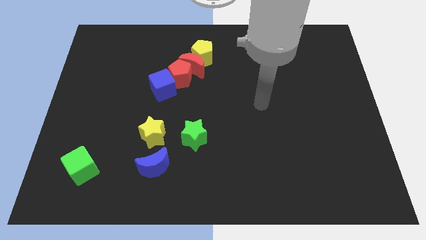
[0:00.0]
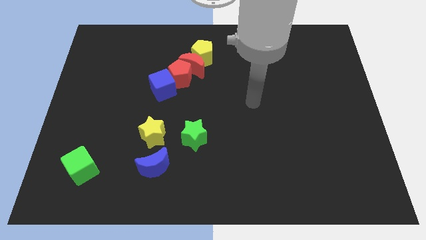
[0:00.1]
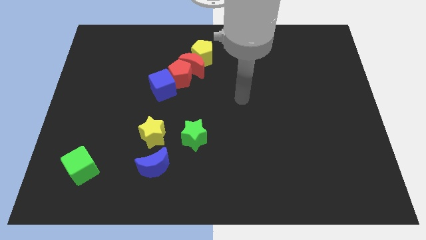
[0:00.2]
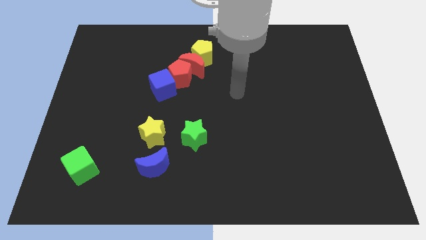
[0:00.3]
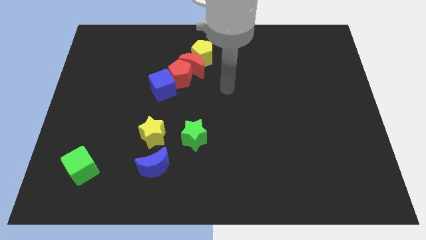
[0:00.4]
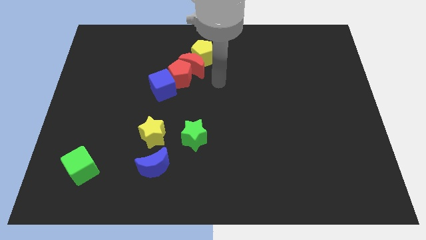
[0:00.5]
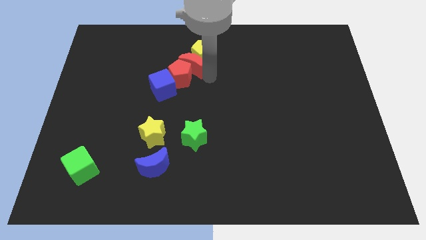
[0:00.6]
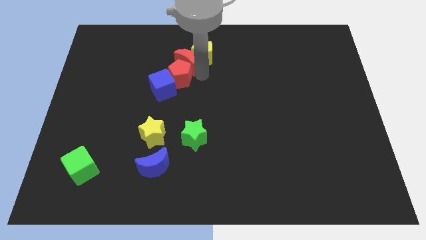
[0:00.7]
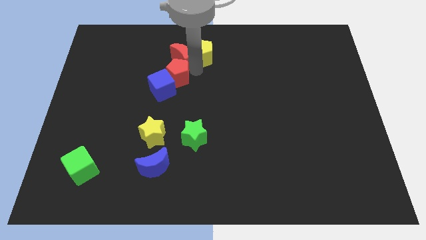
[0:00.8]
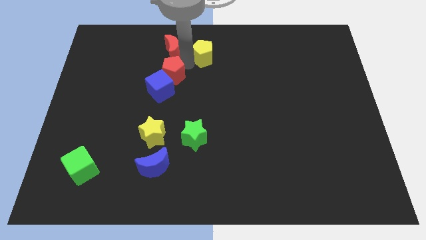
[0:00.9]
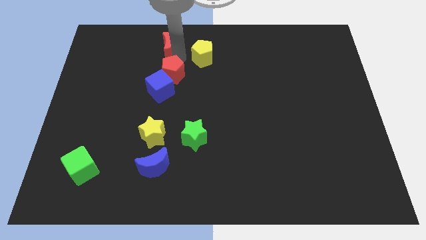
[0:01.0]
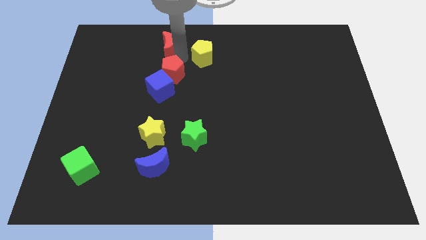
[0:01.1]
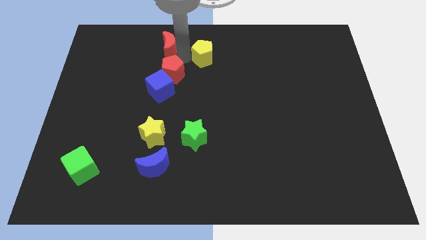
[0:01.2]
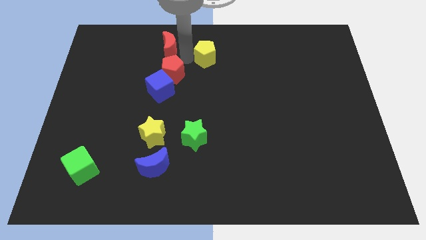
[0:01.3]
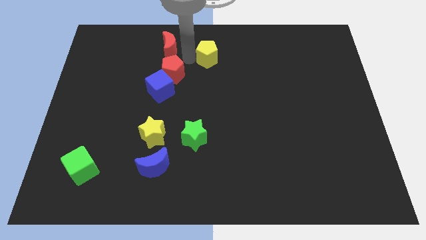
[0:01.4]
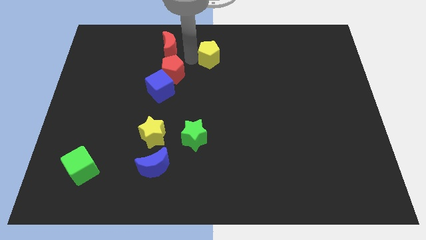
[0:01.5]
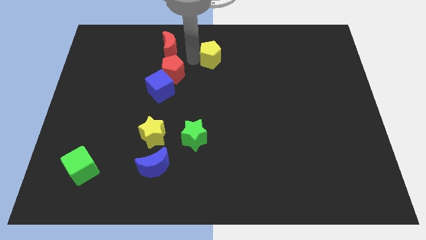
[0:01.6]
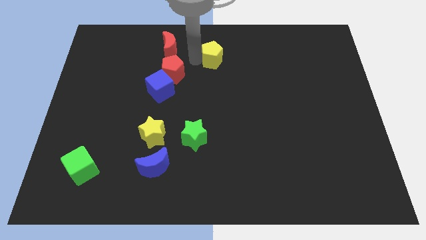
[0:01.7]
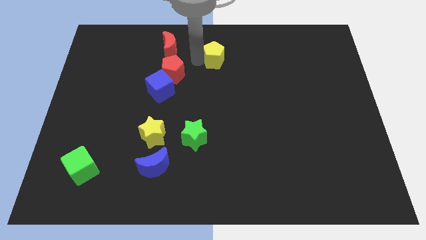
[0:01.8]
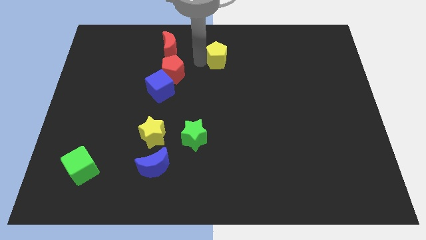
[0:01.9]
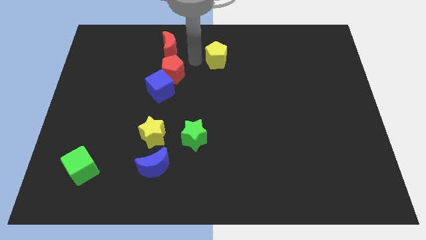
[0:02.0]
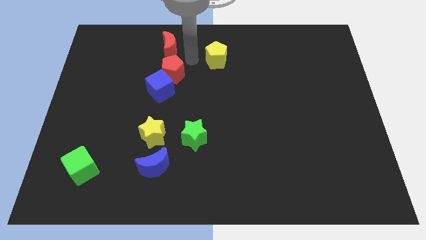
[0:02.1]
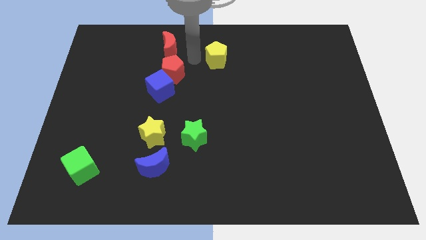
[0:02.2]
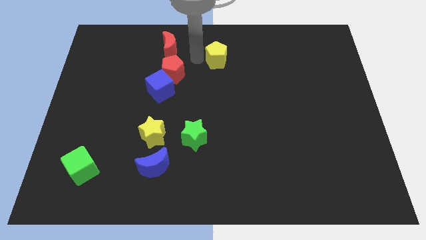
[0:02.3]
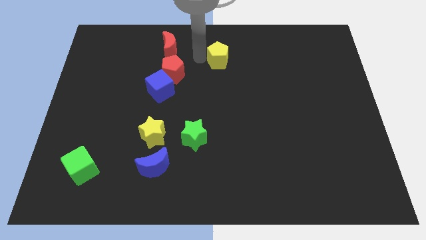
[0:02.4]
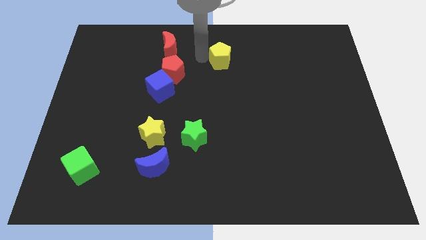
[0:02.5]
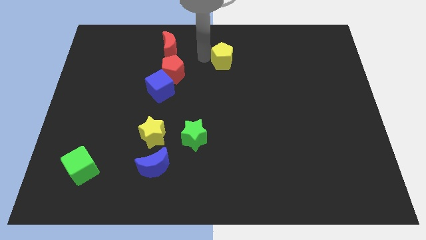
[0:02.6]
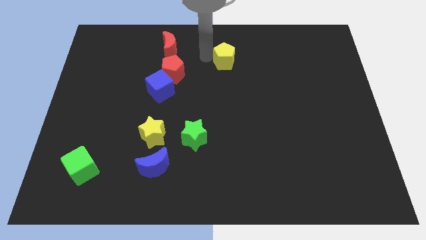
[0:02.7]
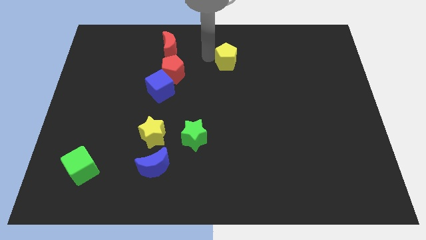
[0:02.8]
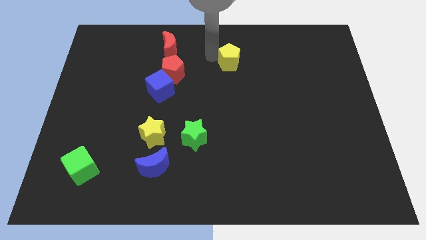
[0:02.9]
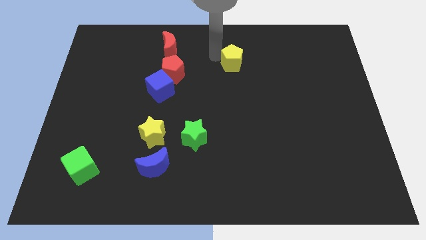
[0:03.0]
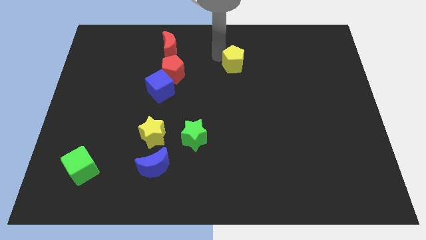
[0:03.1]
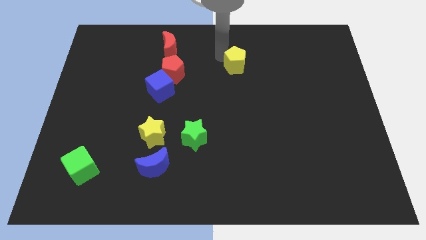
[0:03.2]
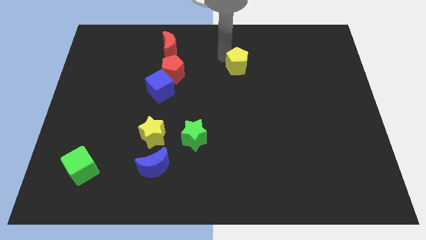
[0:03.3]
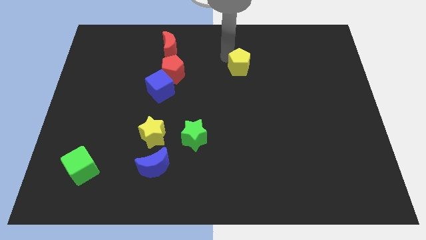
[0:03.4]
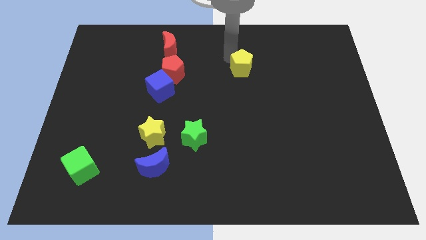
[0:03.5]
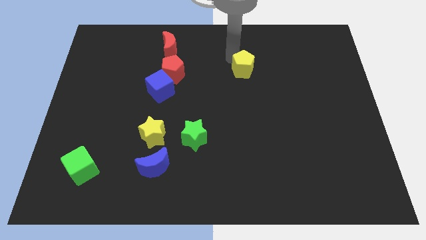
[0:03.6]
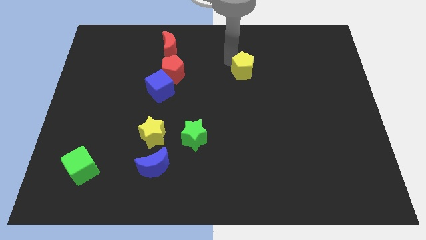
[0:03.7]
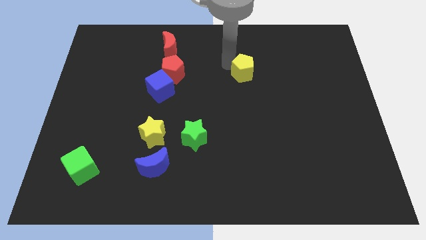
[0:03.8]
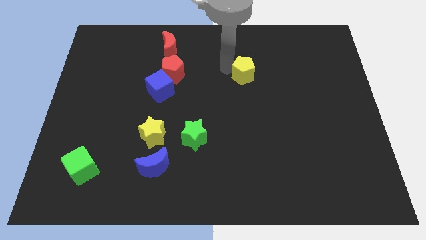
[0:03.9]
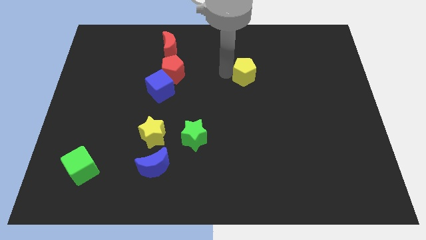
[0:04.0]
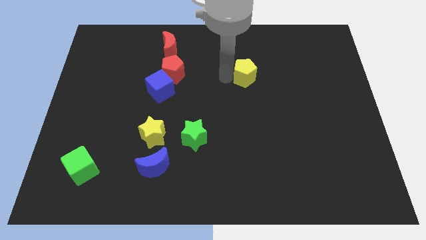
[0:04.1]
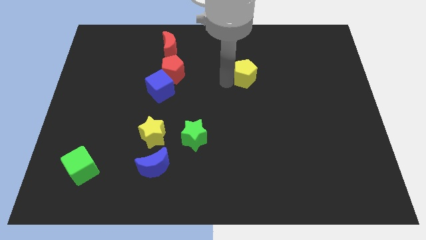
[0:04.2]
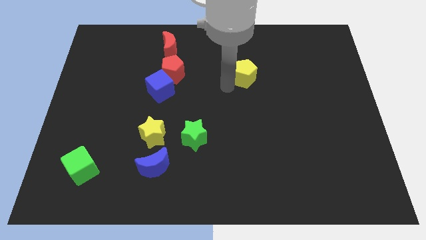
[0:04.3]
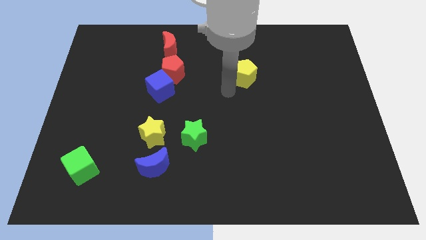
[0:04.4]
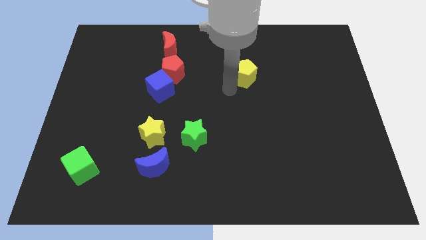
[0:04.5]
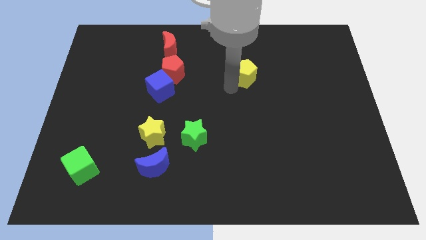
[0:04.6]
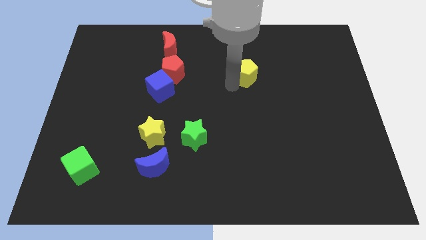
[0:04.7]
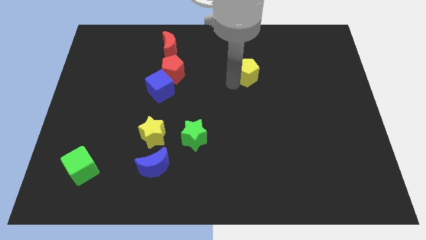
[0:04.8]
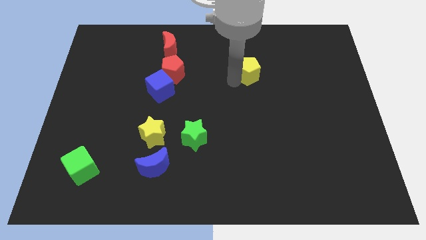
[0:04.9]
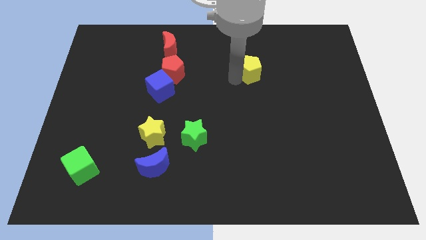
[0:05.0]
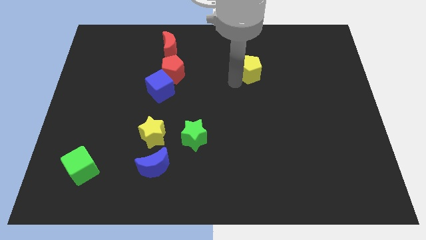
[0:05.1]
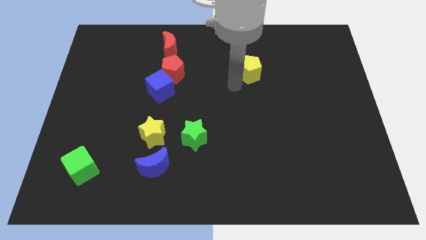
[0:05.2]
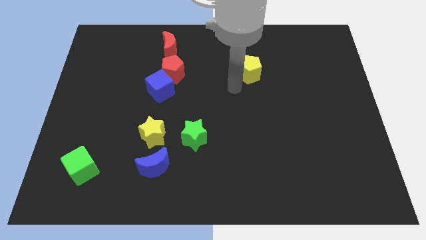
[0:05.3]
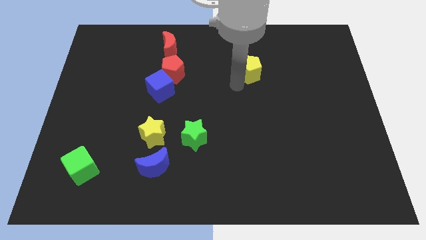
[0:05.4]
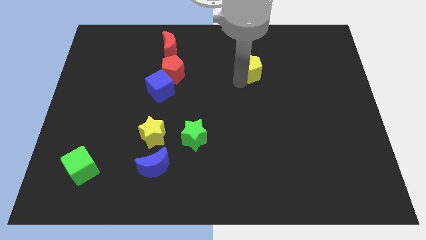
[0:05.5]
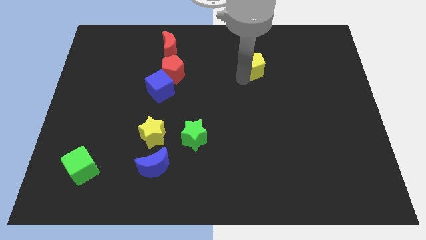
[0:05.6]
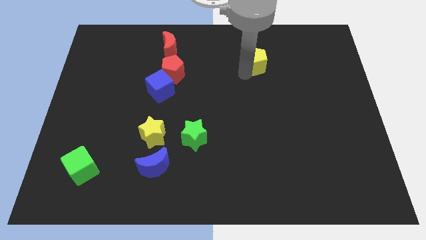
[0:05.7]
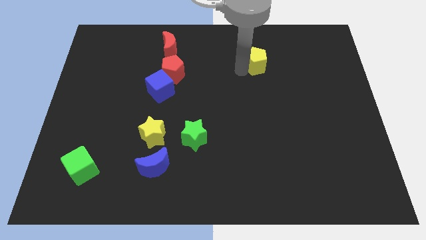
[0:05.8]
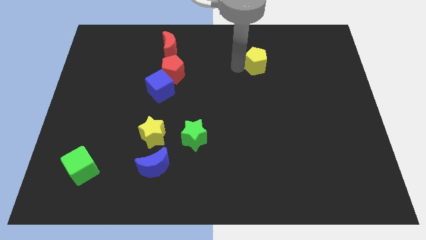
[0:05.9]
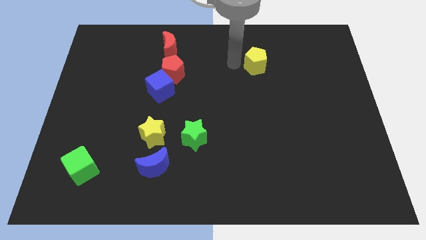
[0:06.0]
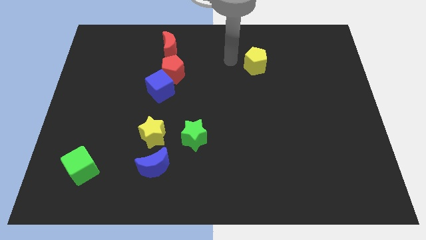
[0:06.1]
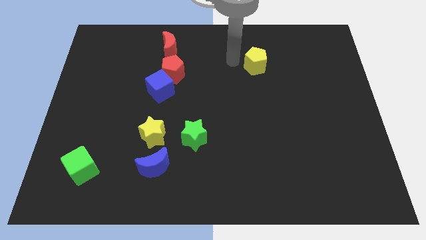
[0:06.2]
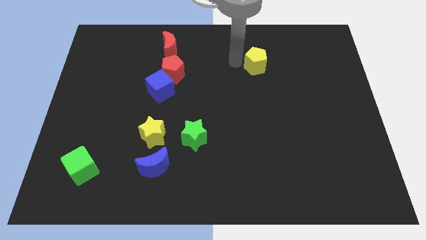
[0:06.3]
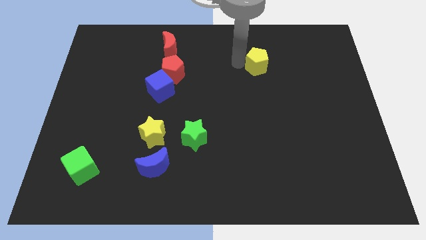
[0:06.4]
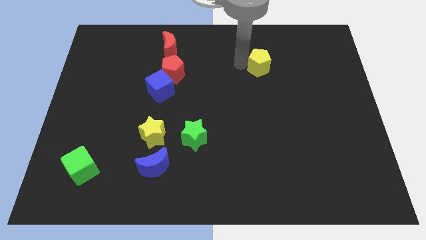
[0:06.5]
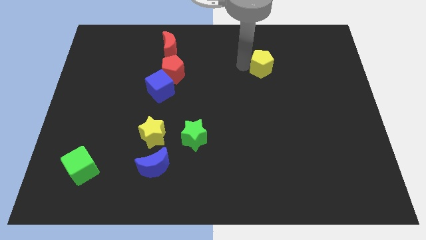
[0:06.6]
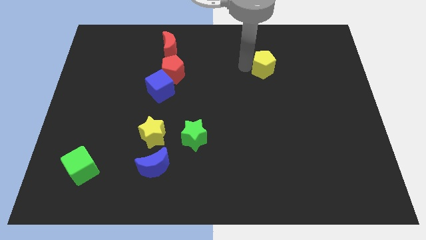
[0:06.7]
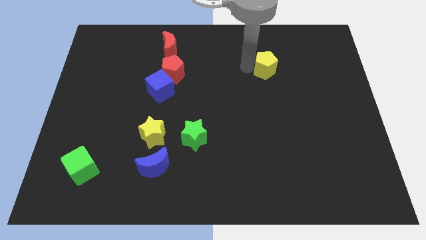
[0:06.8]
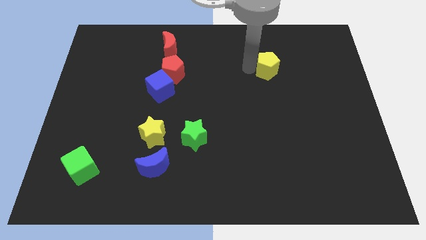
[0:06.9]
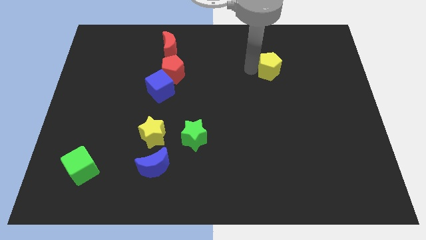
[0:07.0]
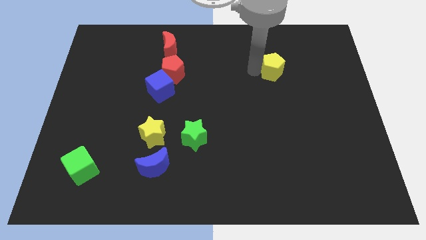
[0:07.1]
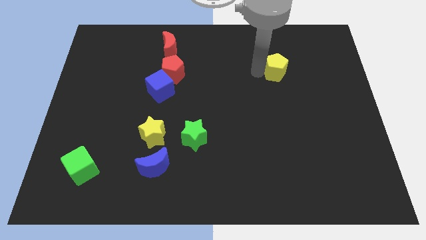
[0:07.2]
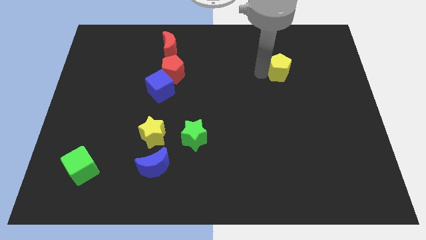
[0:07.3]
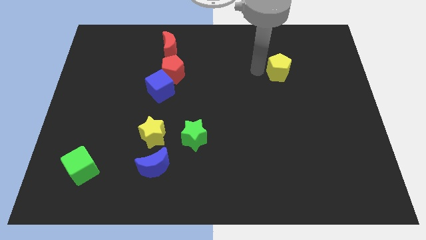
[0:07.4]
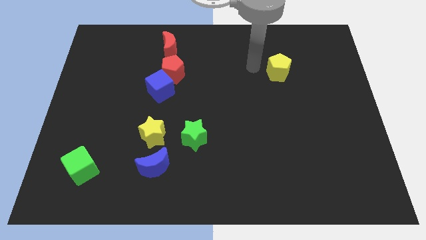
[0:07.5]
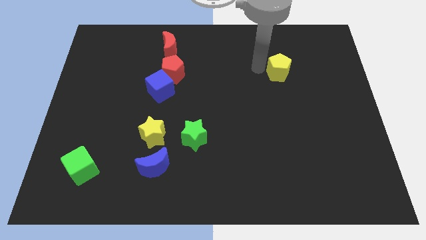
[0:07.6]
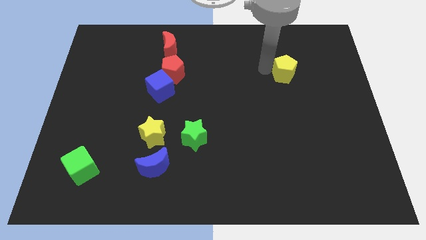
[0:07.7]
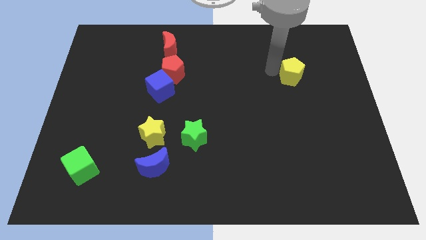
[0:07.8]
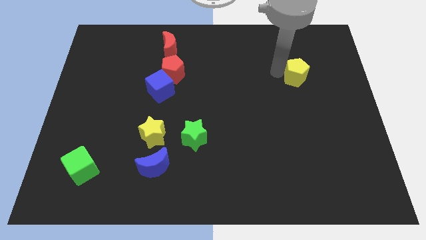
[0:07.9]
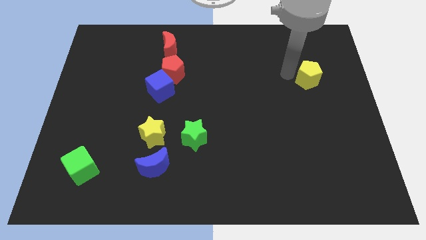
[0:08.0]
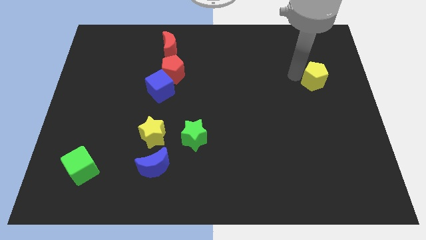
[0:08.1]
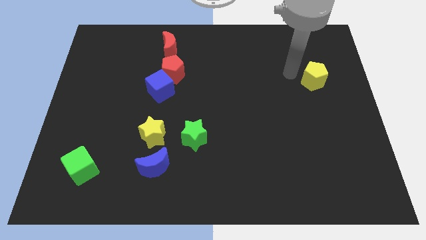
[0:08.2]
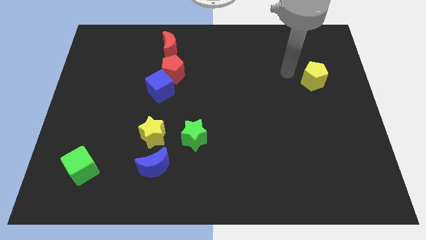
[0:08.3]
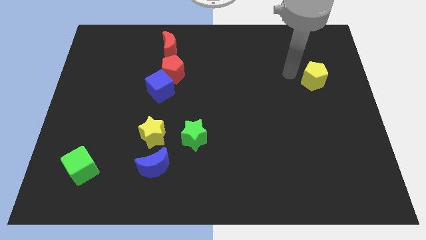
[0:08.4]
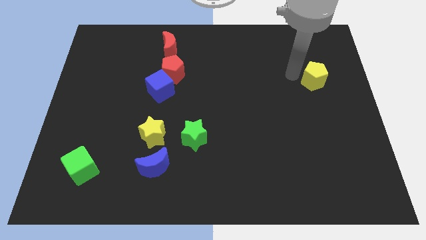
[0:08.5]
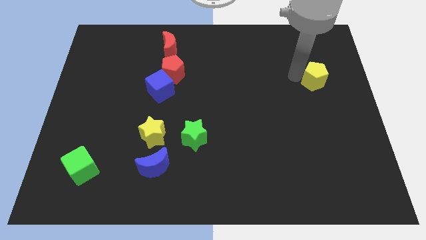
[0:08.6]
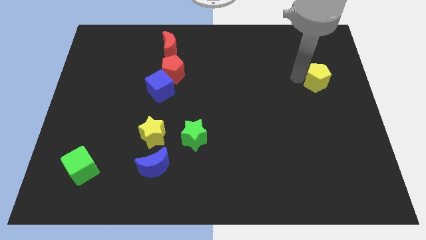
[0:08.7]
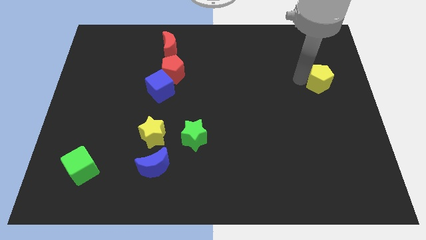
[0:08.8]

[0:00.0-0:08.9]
move the yellow pentagon to the right side of the board
